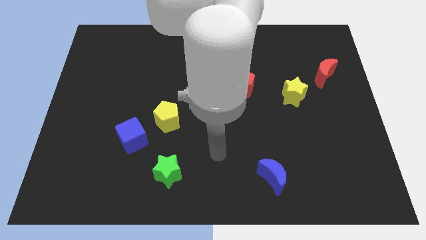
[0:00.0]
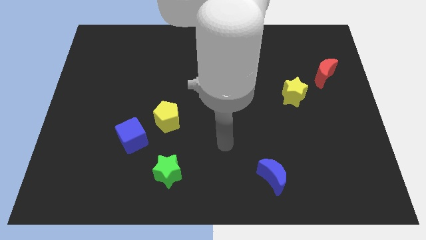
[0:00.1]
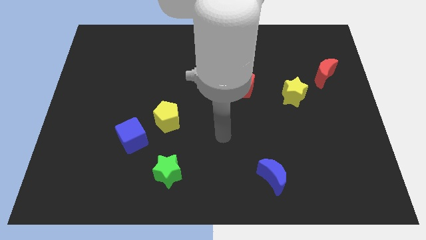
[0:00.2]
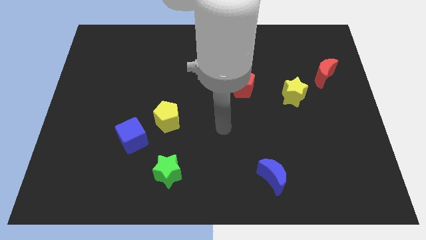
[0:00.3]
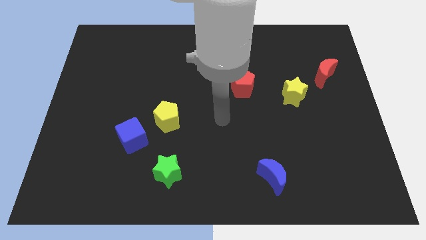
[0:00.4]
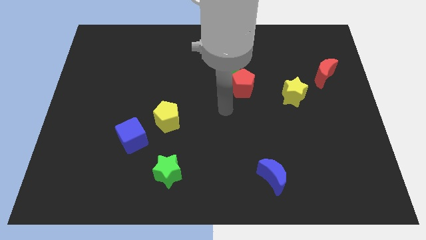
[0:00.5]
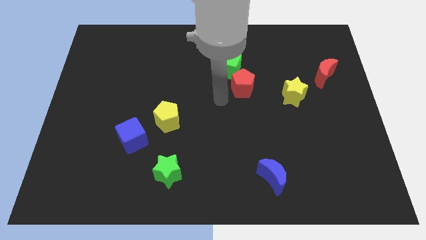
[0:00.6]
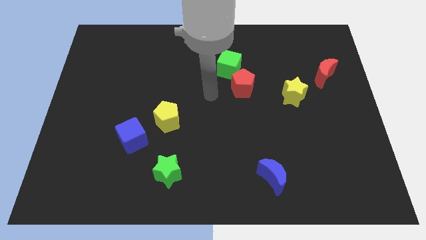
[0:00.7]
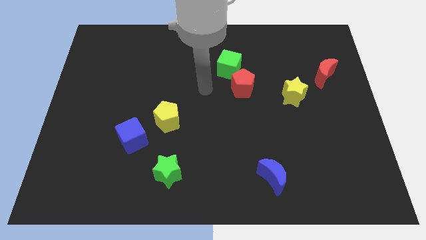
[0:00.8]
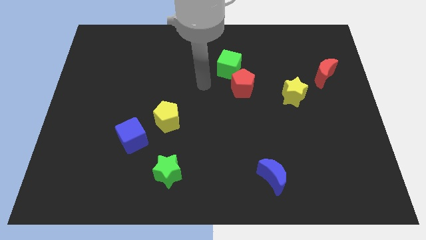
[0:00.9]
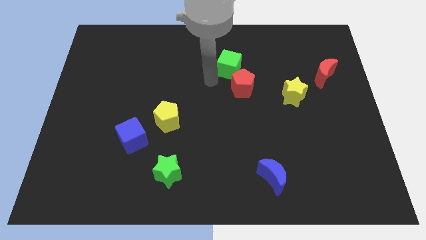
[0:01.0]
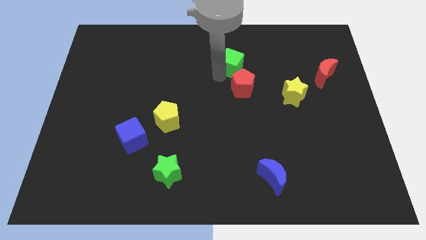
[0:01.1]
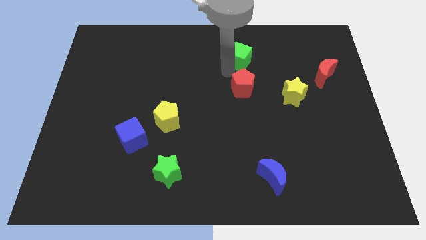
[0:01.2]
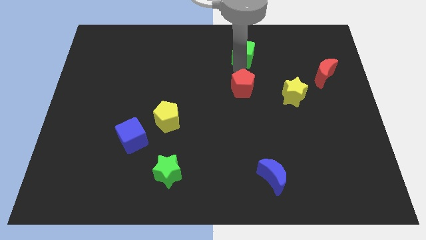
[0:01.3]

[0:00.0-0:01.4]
separate the red pentagon from the green cube

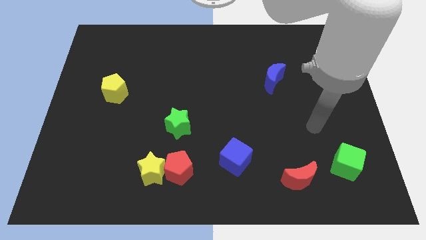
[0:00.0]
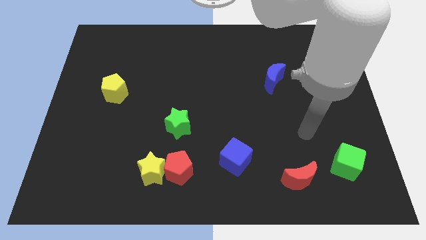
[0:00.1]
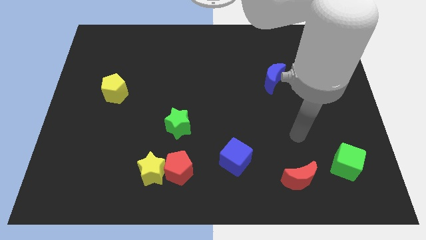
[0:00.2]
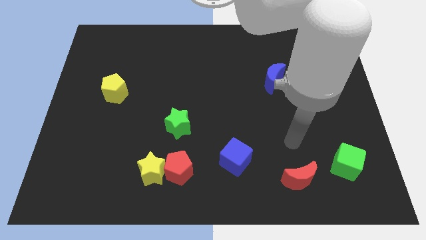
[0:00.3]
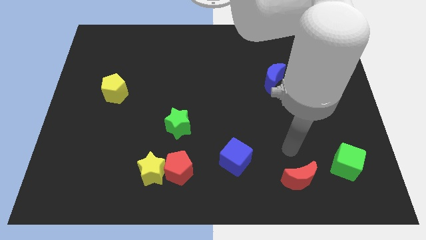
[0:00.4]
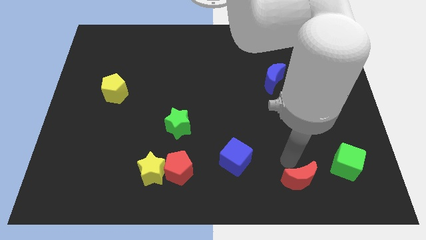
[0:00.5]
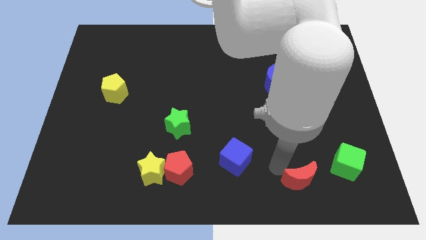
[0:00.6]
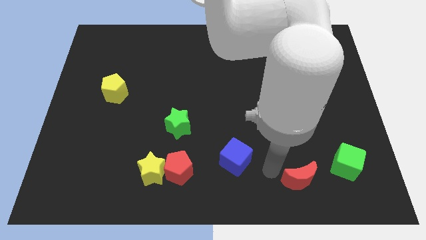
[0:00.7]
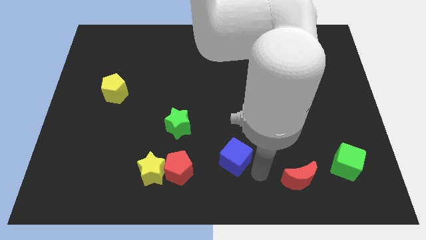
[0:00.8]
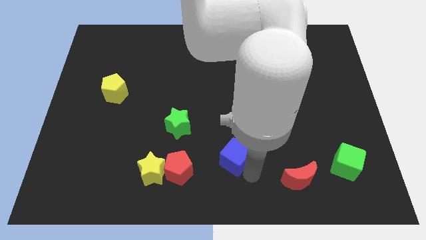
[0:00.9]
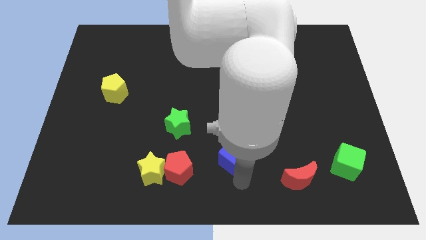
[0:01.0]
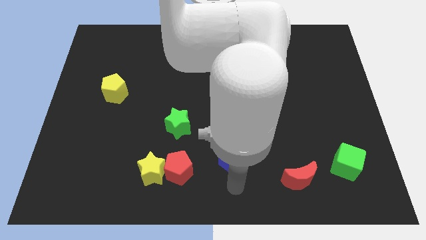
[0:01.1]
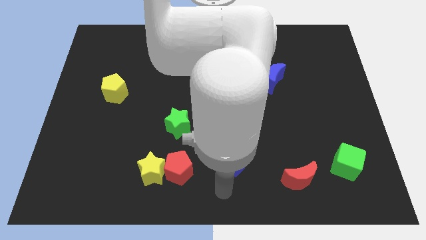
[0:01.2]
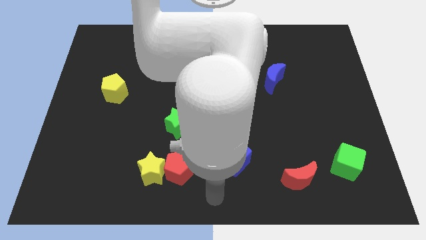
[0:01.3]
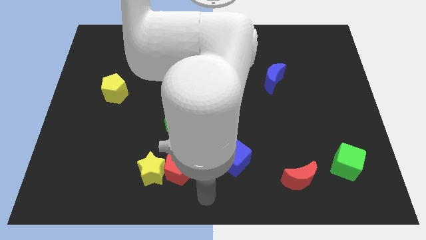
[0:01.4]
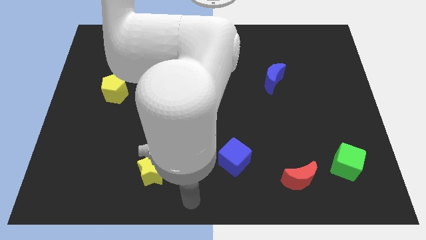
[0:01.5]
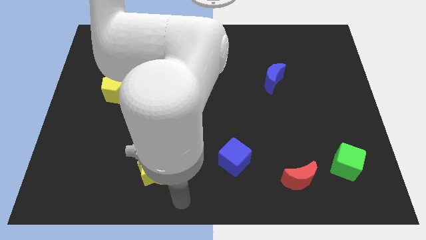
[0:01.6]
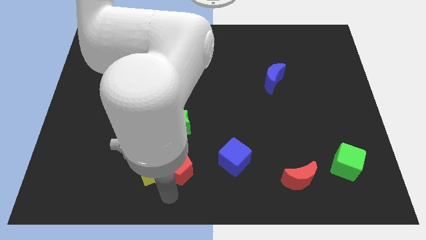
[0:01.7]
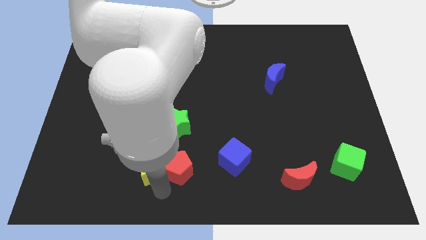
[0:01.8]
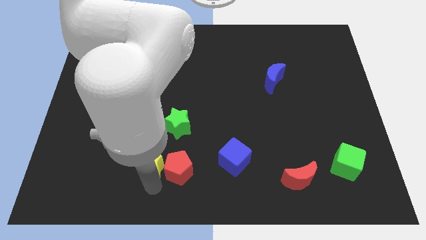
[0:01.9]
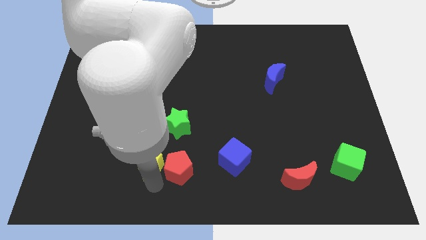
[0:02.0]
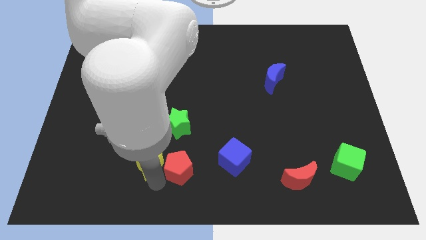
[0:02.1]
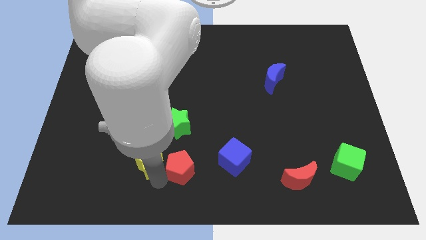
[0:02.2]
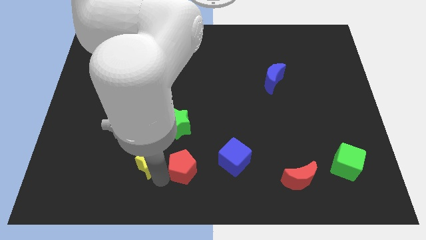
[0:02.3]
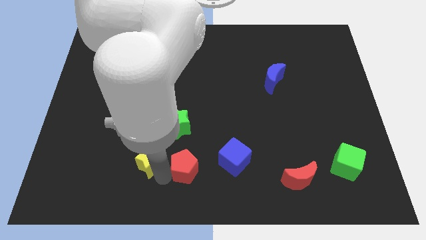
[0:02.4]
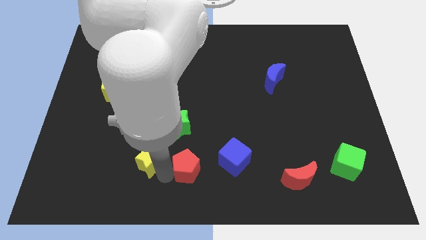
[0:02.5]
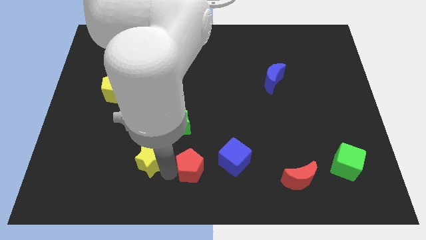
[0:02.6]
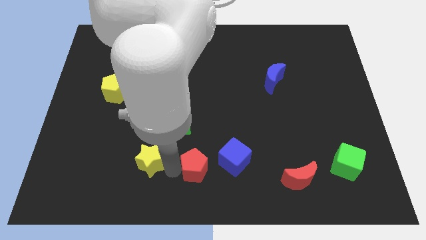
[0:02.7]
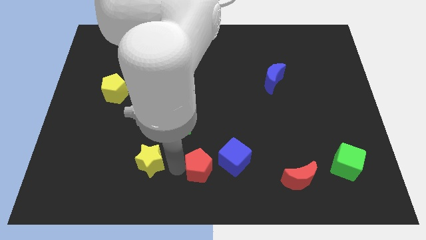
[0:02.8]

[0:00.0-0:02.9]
separate the red pentagon from the yellow star

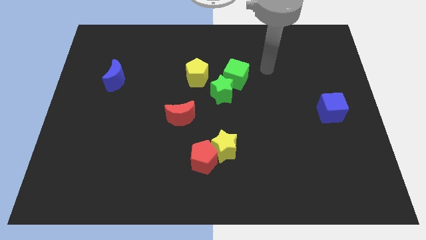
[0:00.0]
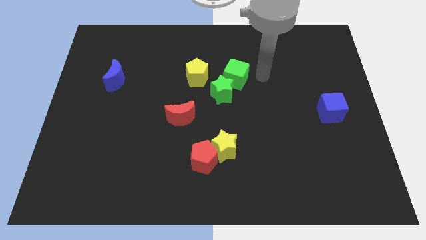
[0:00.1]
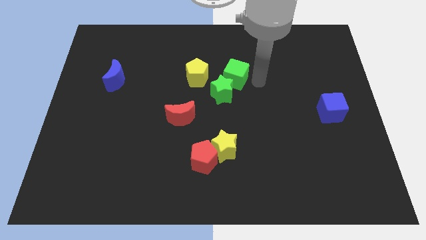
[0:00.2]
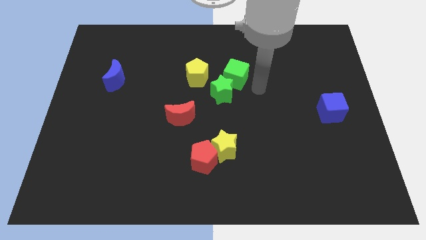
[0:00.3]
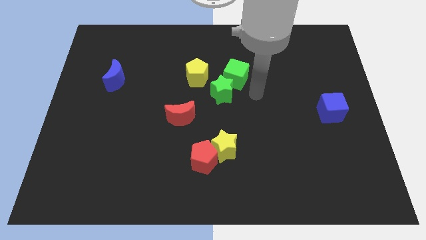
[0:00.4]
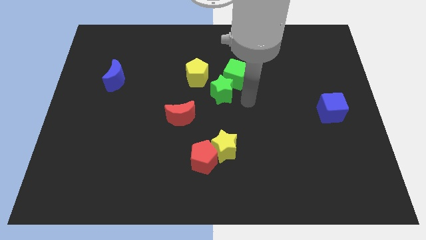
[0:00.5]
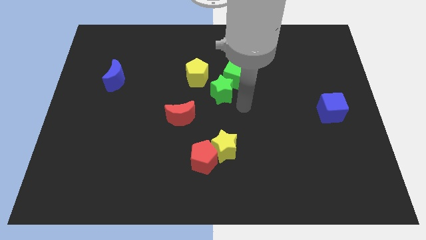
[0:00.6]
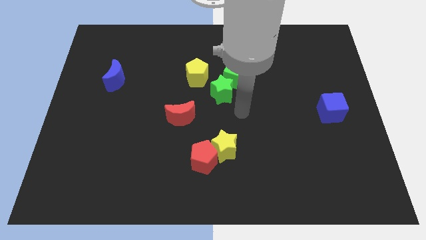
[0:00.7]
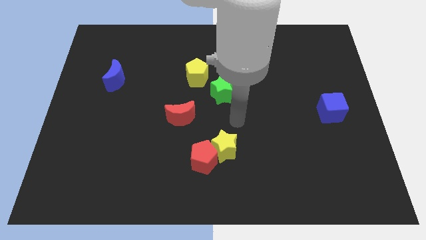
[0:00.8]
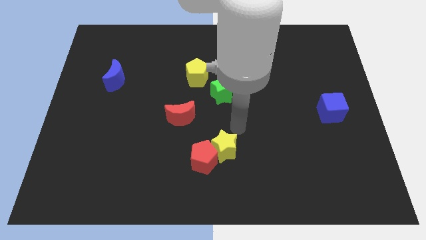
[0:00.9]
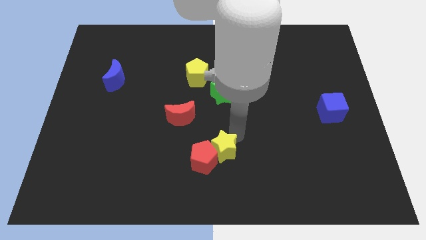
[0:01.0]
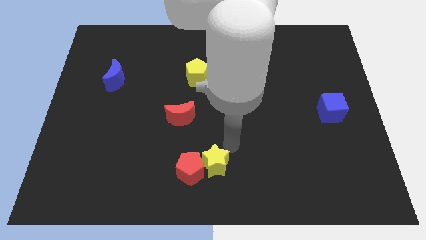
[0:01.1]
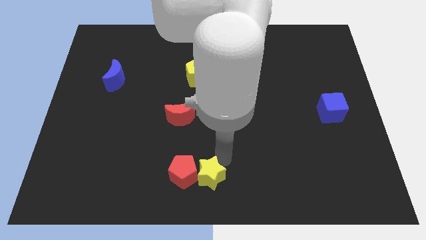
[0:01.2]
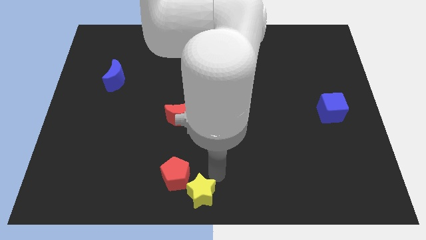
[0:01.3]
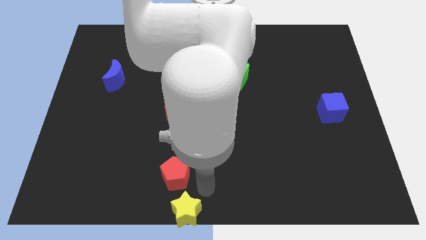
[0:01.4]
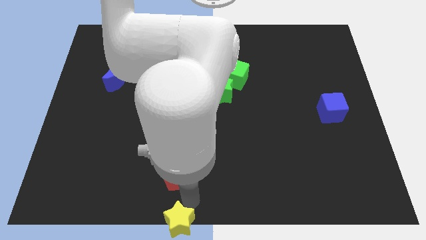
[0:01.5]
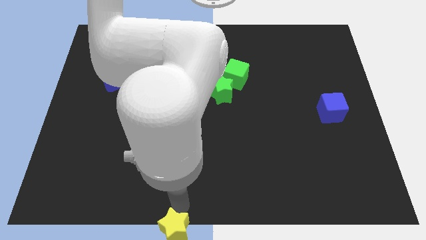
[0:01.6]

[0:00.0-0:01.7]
move the red pentagon away from the yellow star

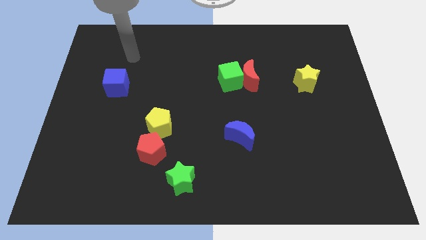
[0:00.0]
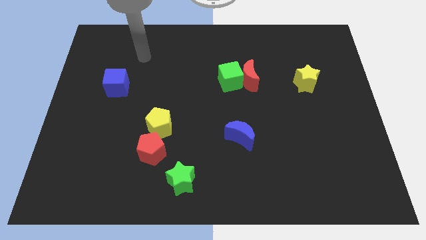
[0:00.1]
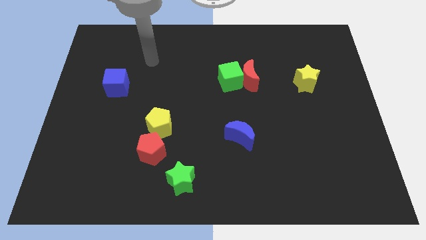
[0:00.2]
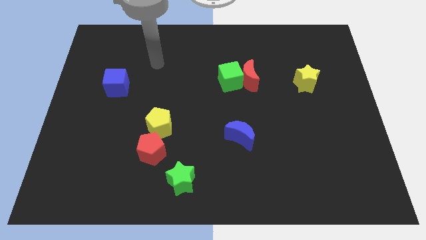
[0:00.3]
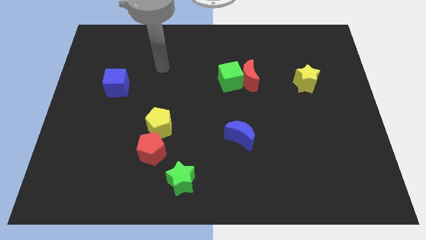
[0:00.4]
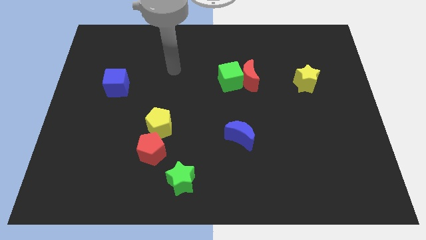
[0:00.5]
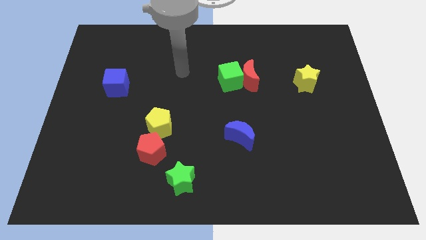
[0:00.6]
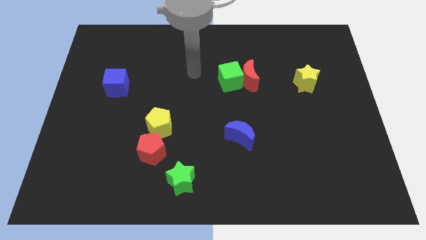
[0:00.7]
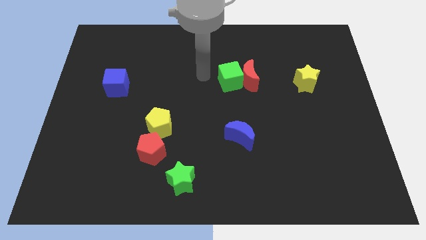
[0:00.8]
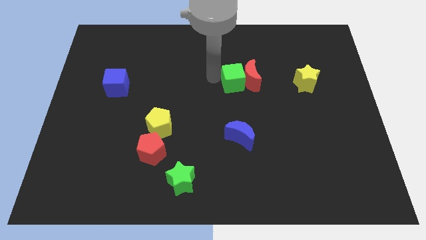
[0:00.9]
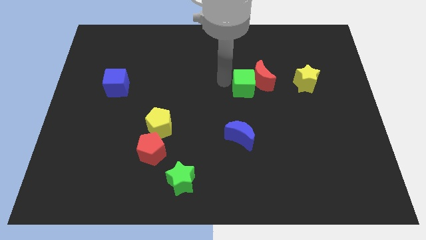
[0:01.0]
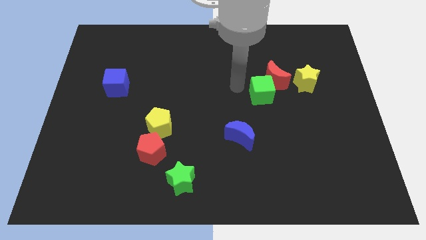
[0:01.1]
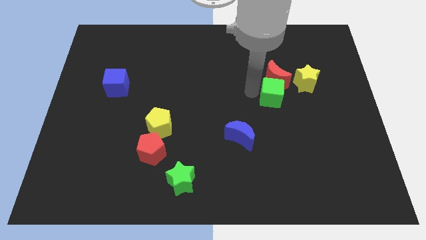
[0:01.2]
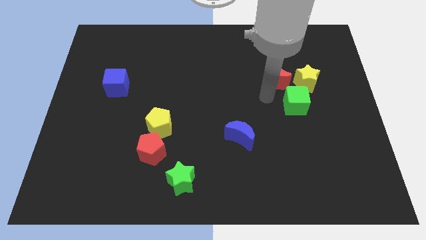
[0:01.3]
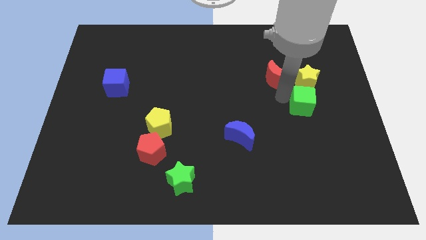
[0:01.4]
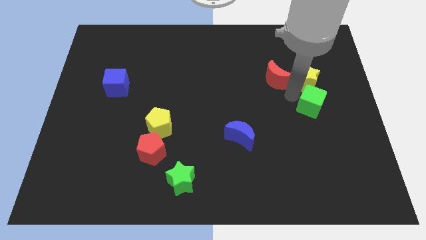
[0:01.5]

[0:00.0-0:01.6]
pull the red moon apart from the green cube

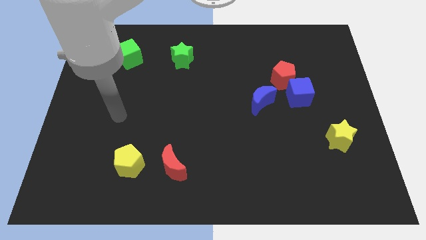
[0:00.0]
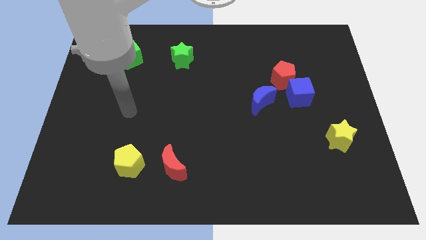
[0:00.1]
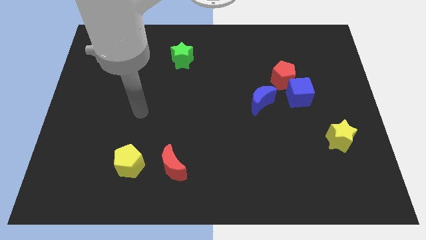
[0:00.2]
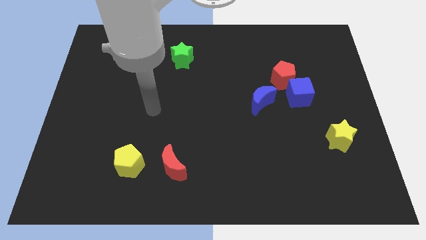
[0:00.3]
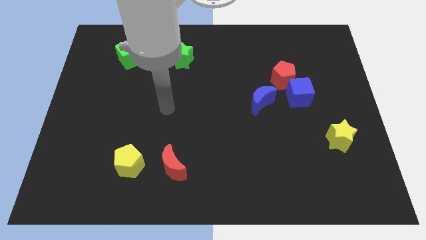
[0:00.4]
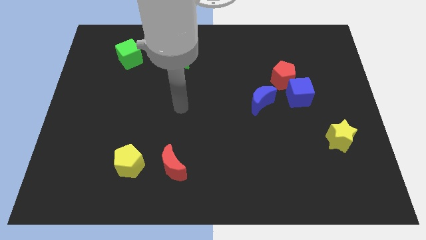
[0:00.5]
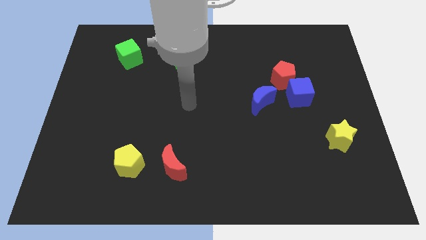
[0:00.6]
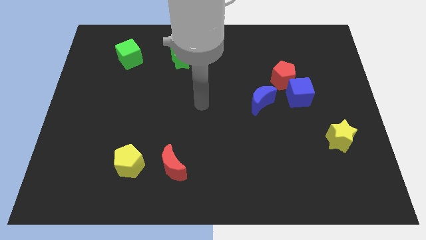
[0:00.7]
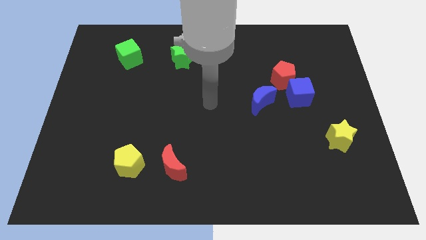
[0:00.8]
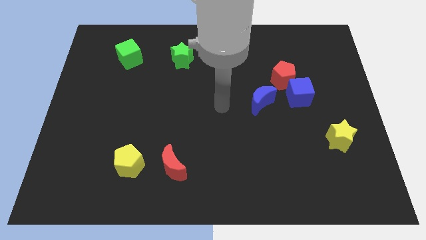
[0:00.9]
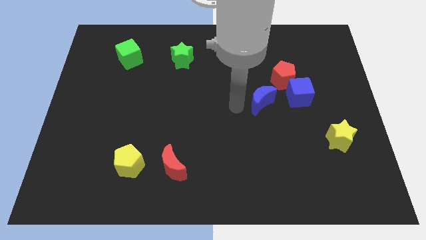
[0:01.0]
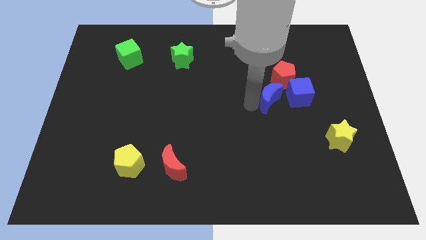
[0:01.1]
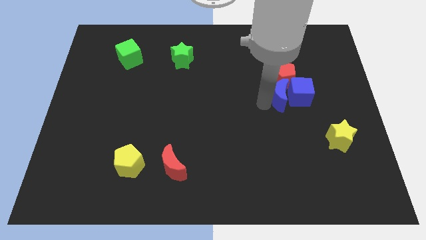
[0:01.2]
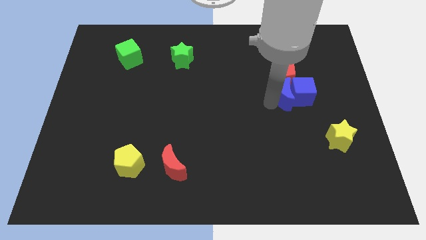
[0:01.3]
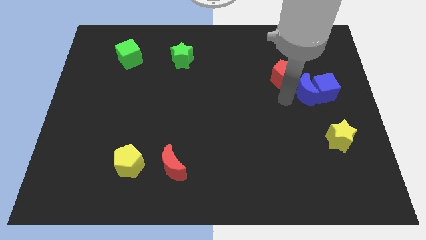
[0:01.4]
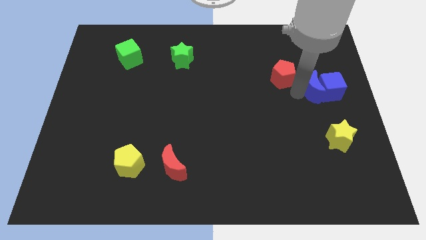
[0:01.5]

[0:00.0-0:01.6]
separate the red pentagon from the blue cube and blue moon

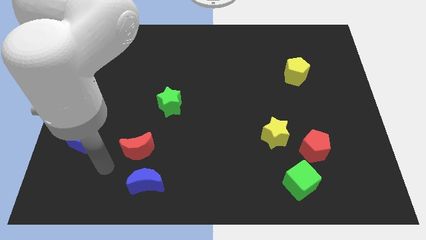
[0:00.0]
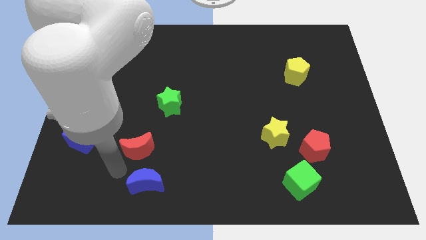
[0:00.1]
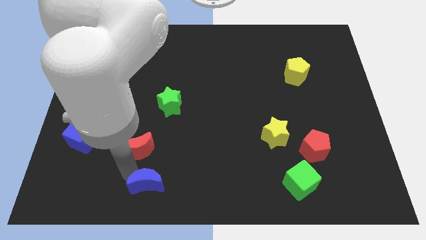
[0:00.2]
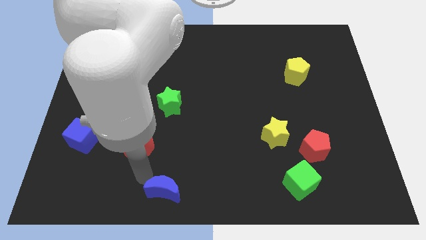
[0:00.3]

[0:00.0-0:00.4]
move the red moon away from the blue moon
